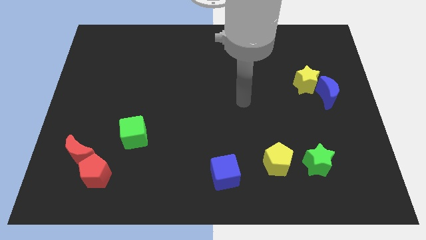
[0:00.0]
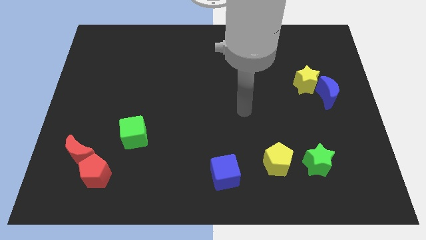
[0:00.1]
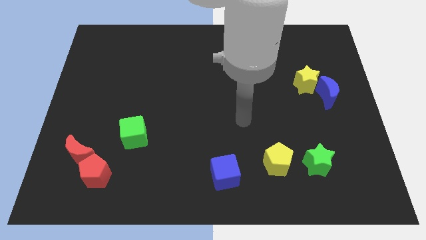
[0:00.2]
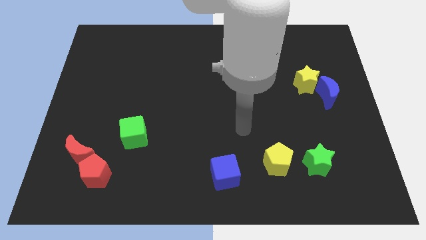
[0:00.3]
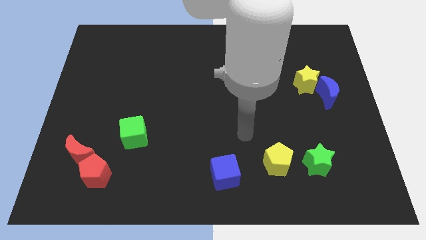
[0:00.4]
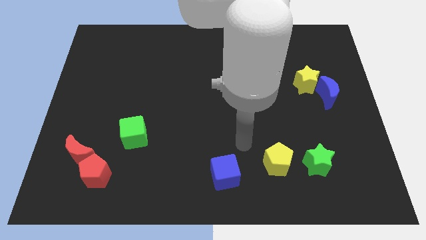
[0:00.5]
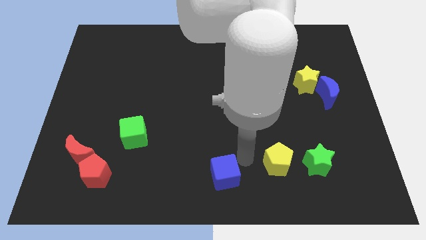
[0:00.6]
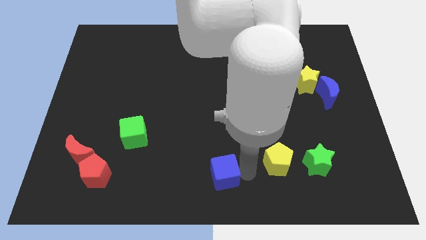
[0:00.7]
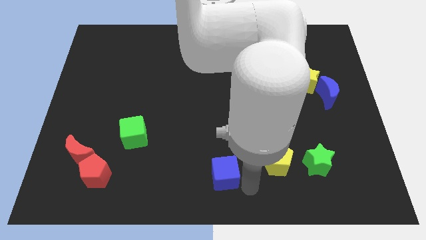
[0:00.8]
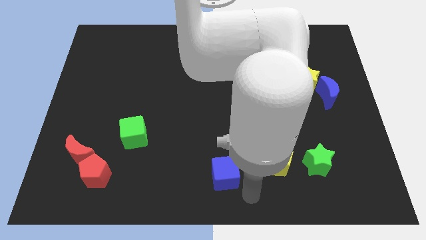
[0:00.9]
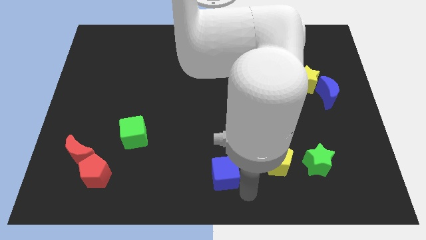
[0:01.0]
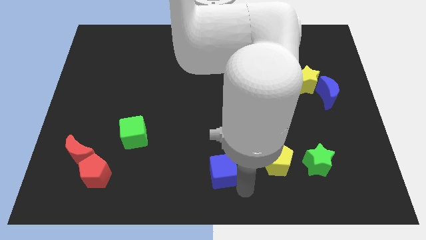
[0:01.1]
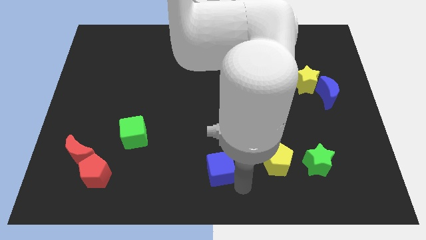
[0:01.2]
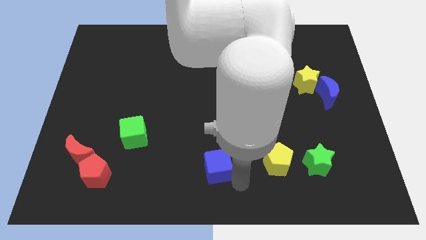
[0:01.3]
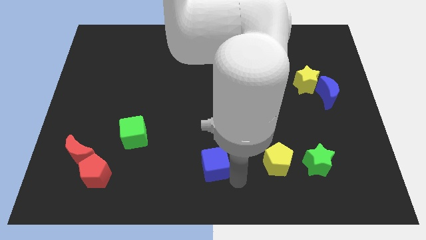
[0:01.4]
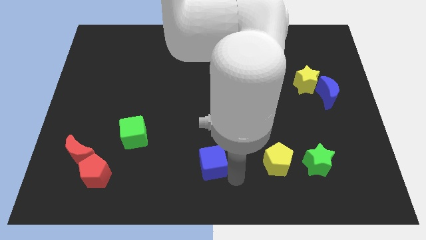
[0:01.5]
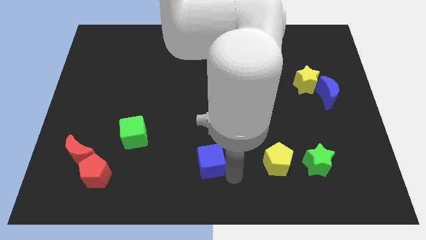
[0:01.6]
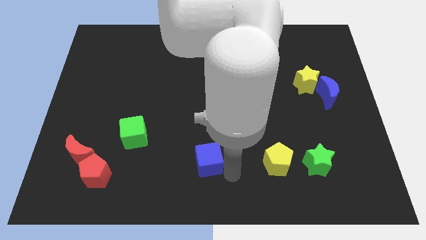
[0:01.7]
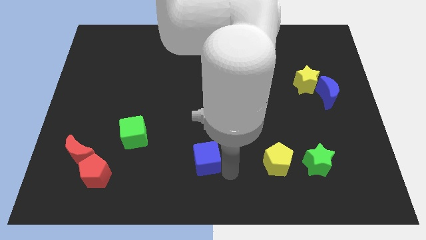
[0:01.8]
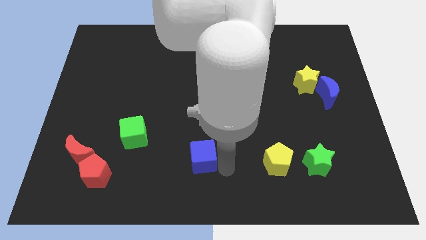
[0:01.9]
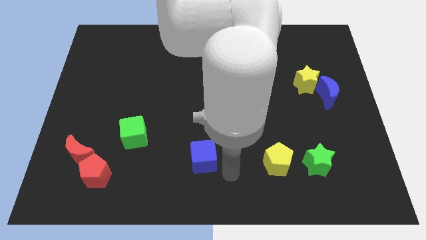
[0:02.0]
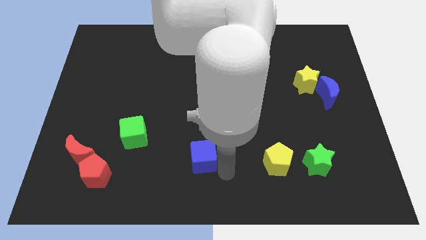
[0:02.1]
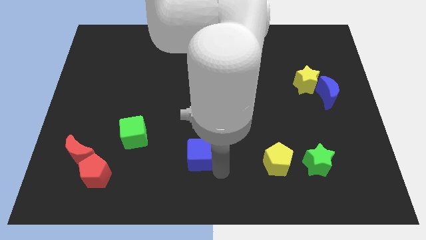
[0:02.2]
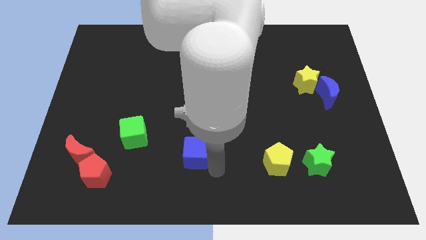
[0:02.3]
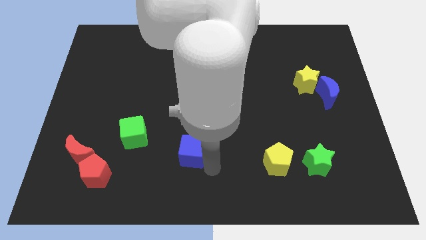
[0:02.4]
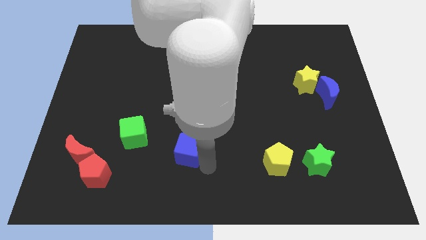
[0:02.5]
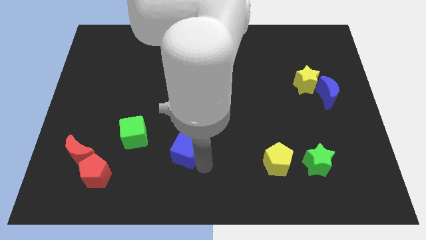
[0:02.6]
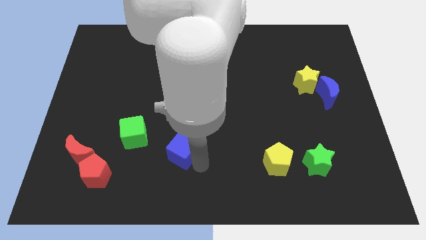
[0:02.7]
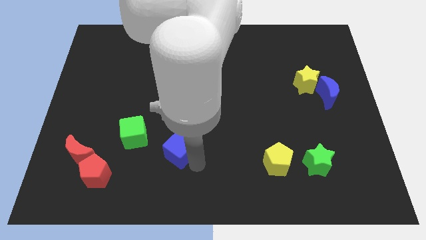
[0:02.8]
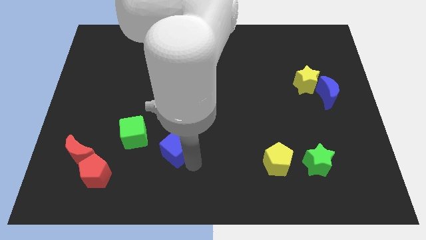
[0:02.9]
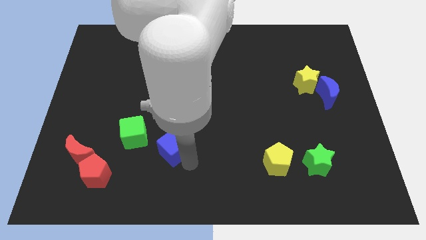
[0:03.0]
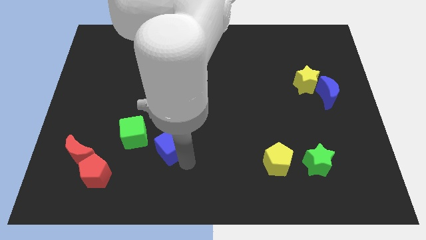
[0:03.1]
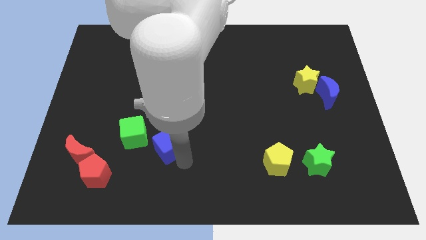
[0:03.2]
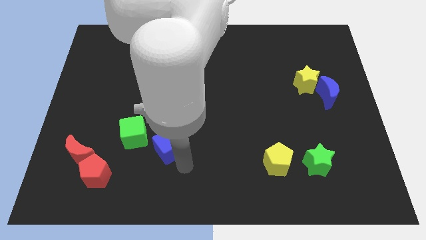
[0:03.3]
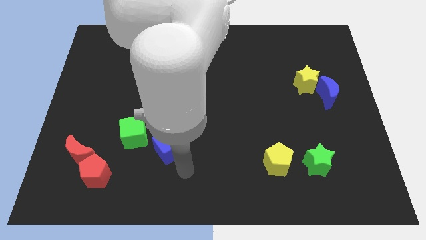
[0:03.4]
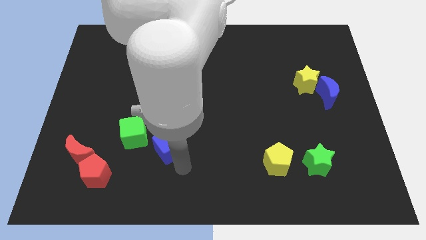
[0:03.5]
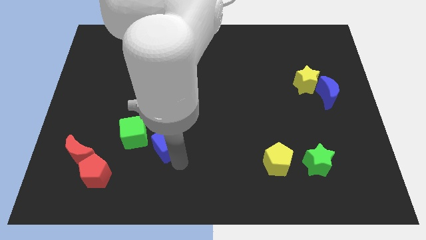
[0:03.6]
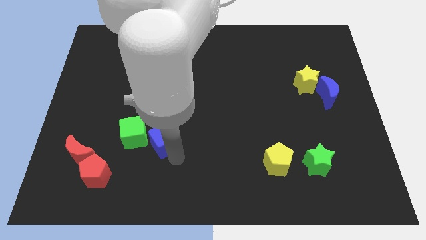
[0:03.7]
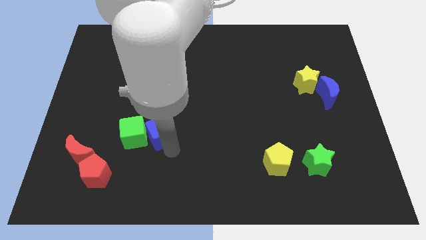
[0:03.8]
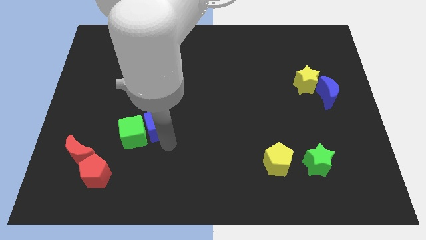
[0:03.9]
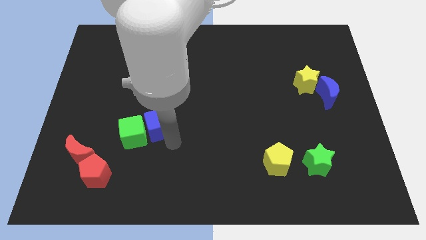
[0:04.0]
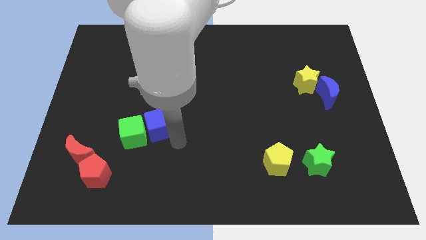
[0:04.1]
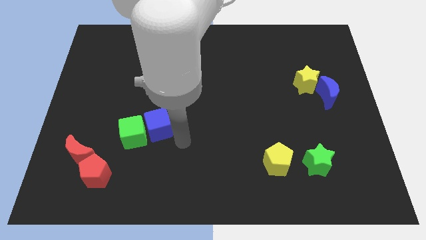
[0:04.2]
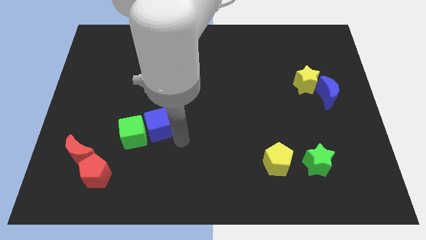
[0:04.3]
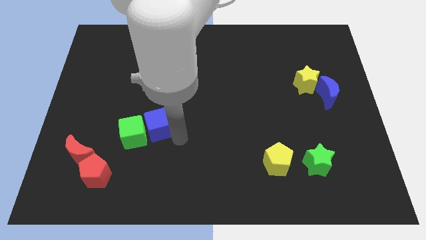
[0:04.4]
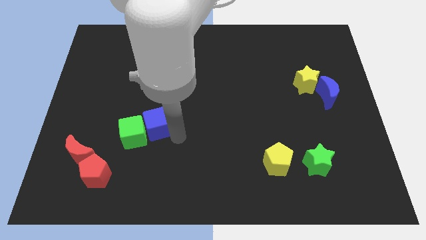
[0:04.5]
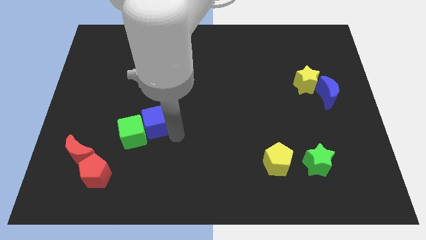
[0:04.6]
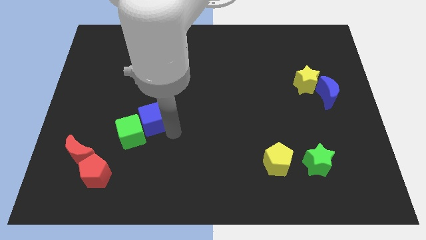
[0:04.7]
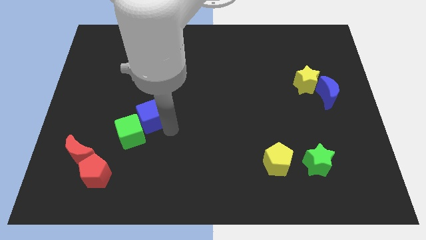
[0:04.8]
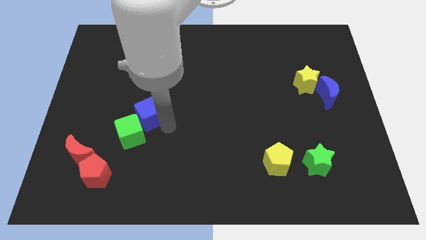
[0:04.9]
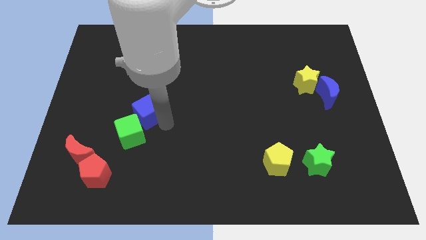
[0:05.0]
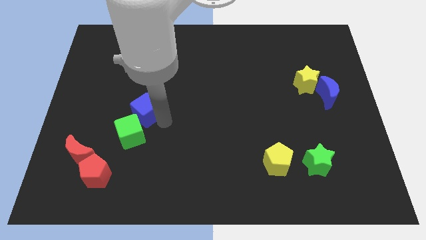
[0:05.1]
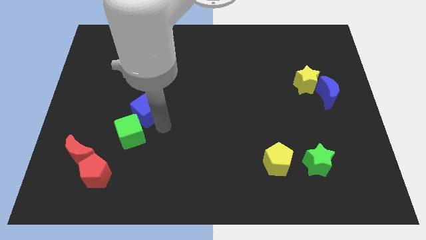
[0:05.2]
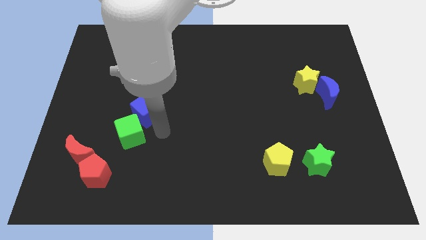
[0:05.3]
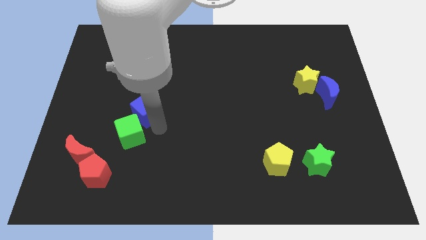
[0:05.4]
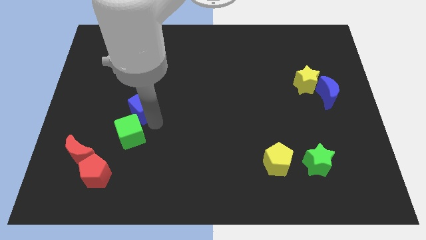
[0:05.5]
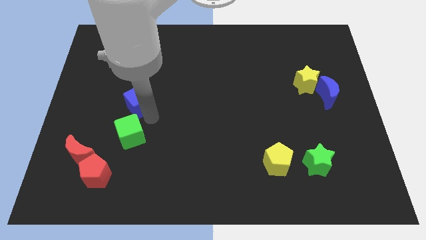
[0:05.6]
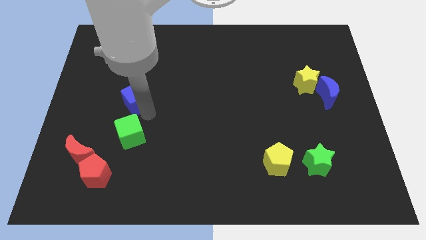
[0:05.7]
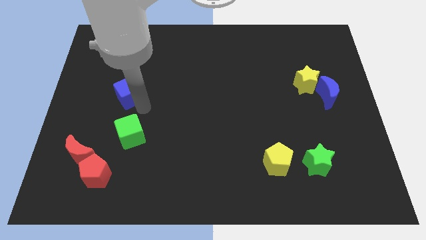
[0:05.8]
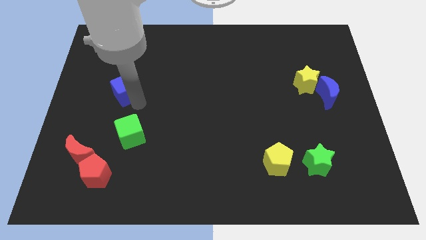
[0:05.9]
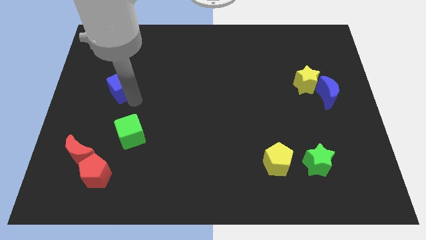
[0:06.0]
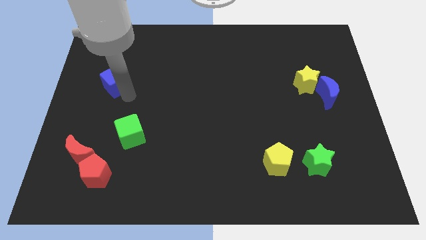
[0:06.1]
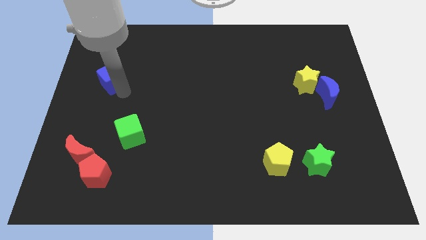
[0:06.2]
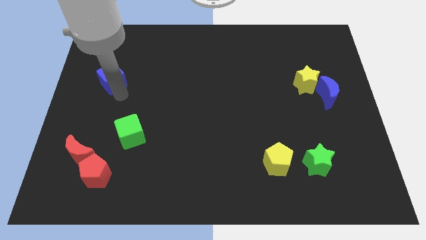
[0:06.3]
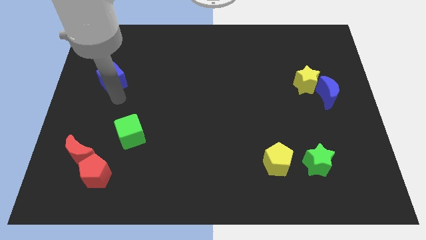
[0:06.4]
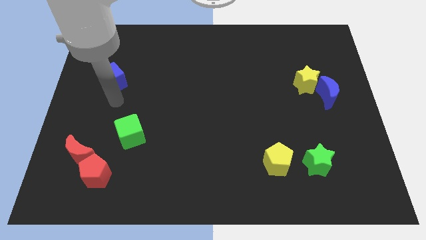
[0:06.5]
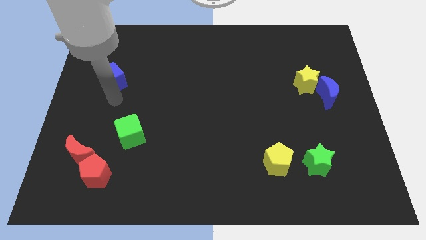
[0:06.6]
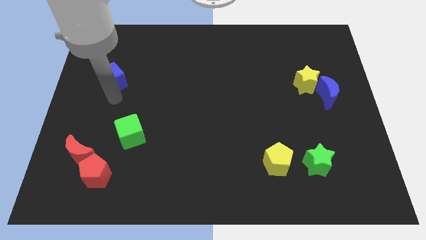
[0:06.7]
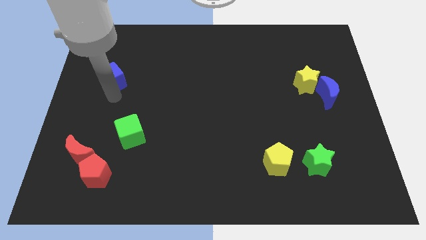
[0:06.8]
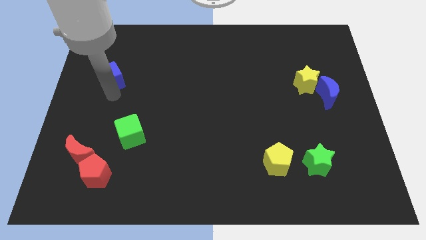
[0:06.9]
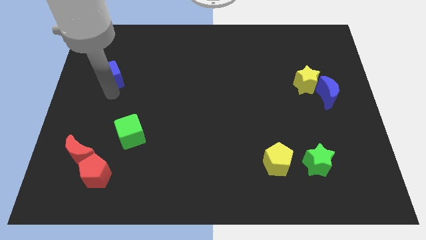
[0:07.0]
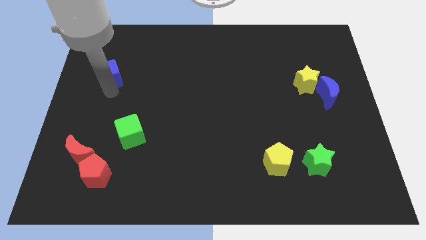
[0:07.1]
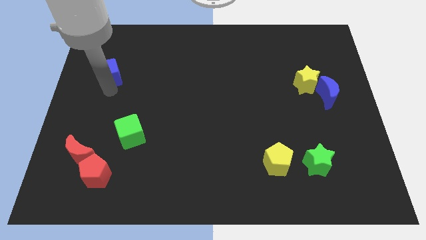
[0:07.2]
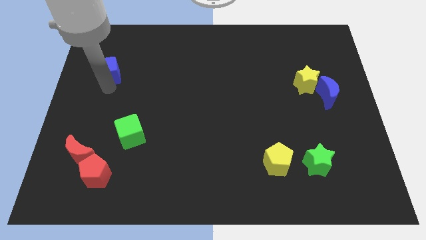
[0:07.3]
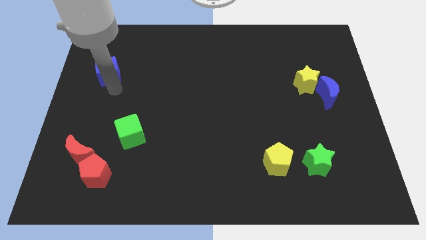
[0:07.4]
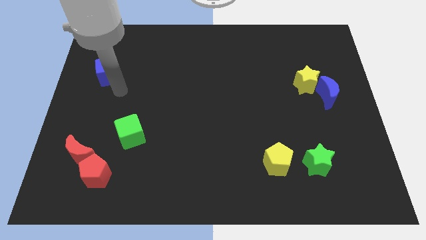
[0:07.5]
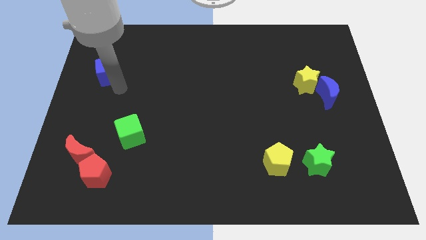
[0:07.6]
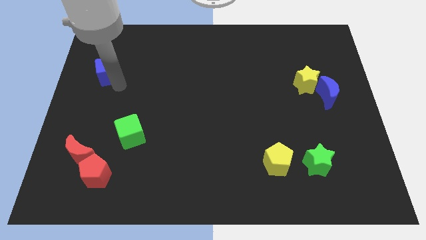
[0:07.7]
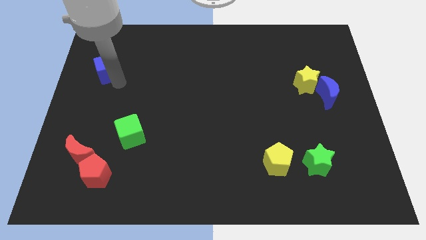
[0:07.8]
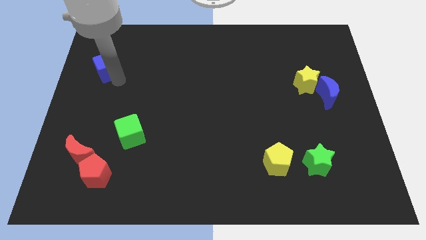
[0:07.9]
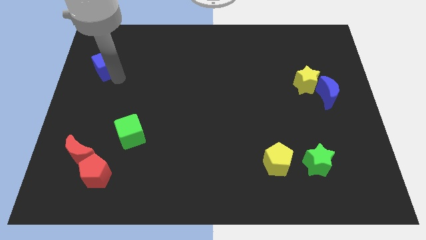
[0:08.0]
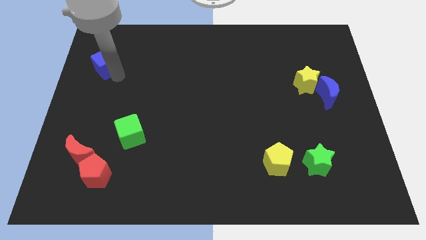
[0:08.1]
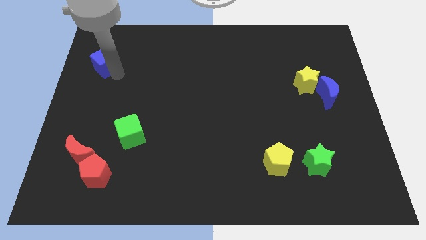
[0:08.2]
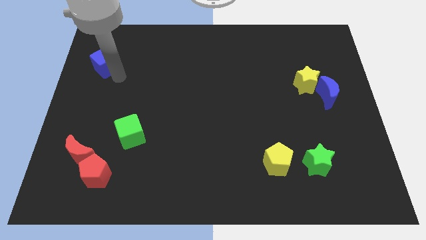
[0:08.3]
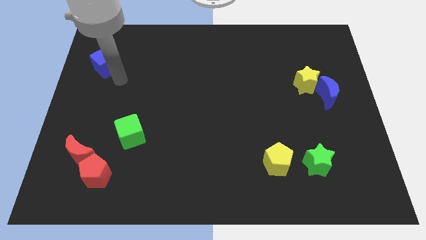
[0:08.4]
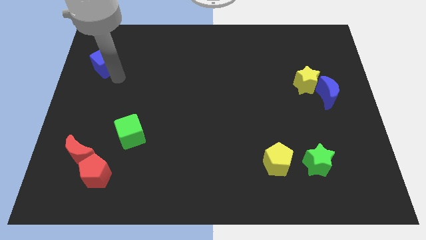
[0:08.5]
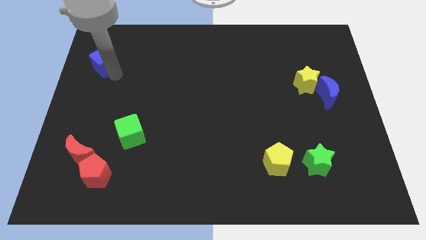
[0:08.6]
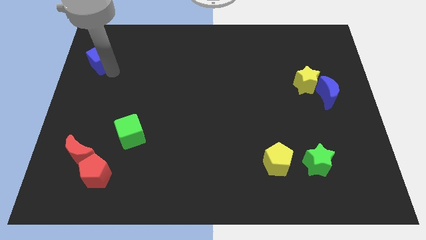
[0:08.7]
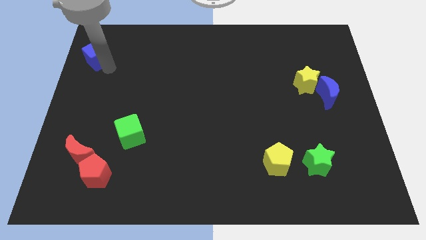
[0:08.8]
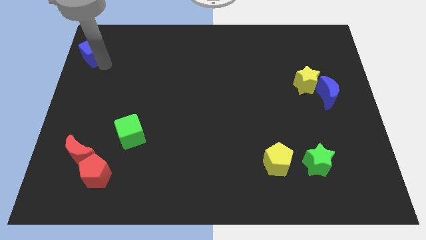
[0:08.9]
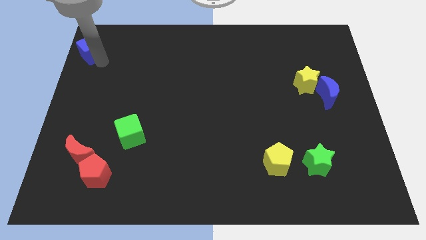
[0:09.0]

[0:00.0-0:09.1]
slide the blue cube to the top left of the board
